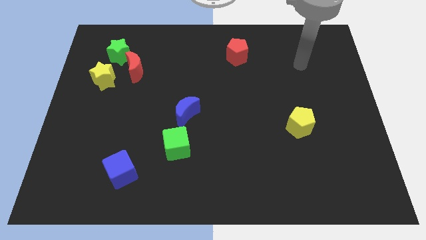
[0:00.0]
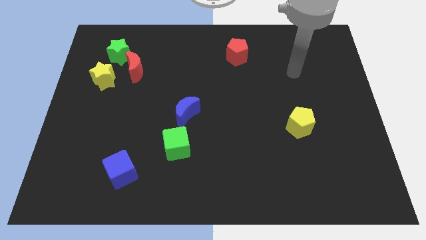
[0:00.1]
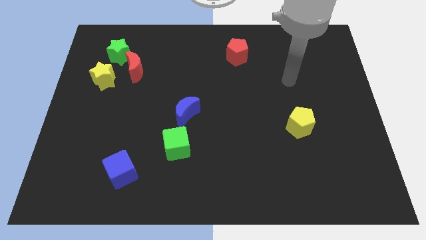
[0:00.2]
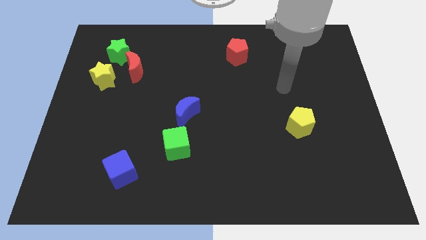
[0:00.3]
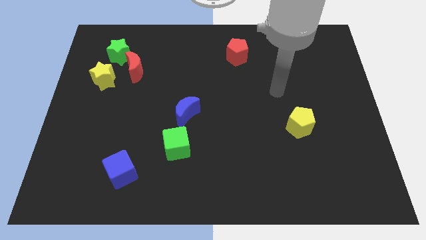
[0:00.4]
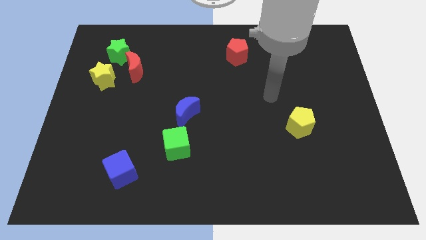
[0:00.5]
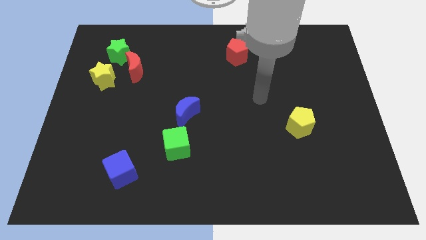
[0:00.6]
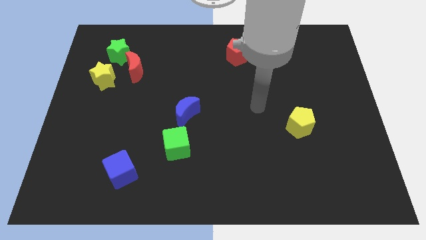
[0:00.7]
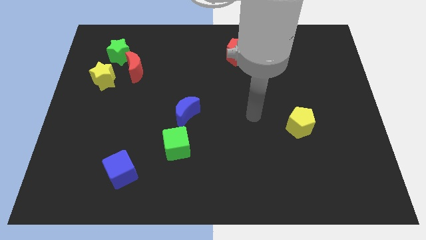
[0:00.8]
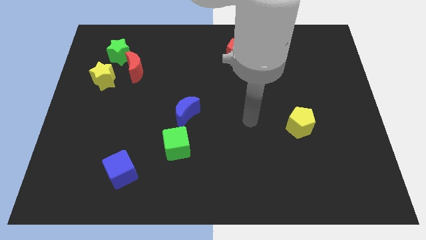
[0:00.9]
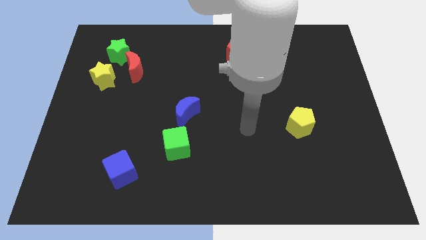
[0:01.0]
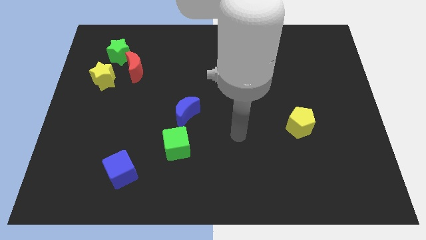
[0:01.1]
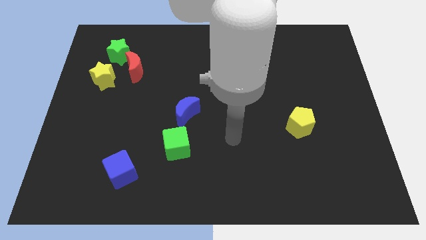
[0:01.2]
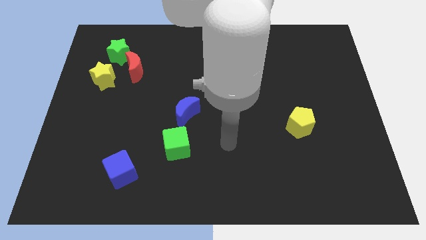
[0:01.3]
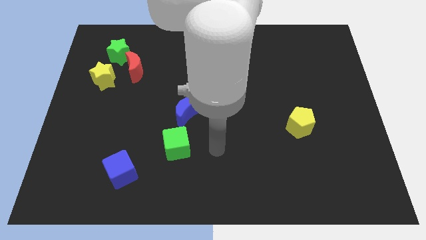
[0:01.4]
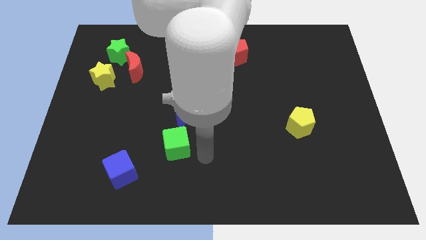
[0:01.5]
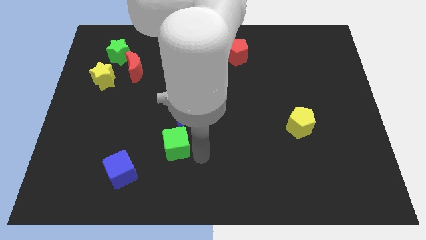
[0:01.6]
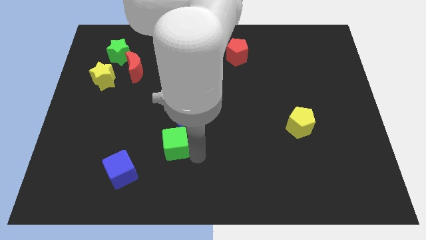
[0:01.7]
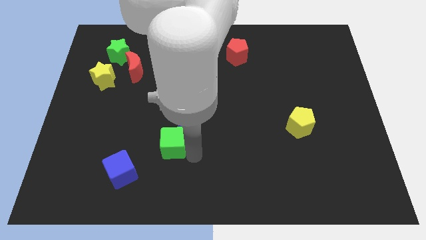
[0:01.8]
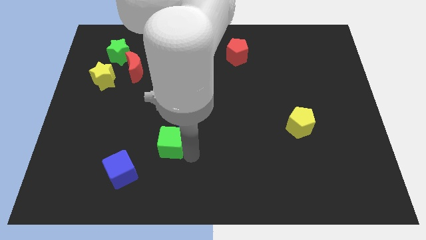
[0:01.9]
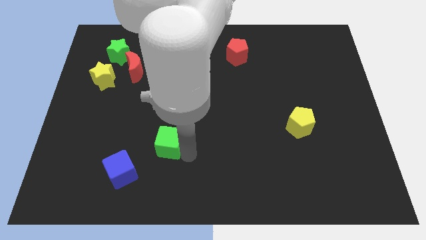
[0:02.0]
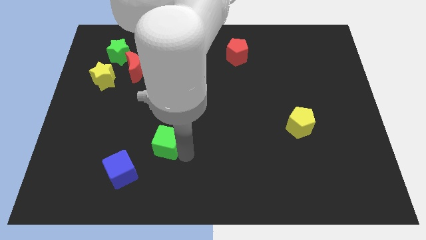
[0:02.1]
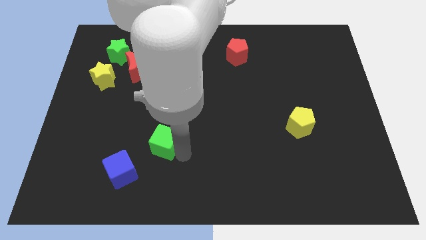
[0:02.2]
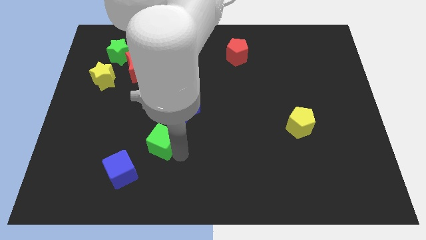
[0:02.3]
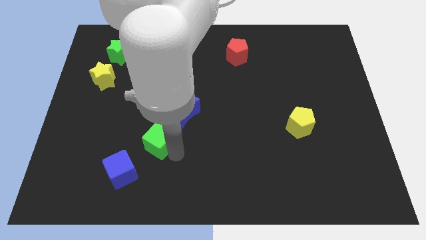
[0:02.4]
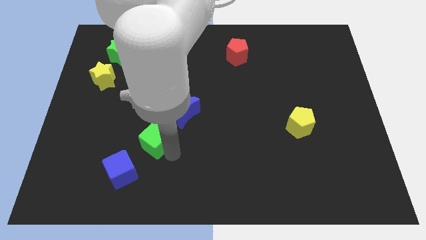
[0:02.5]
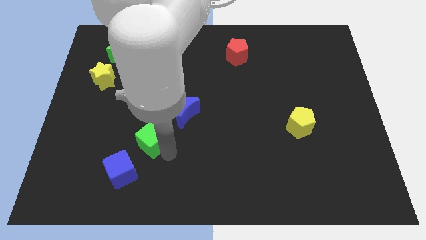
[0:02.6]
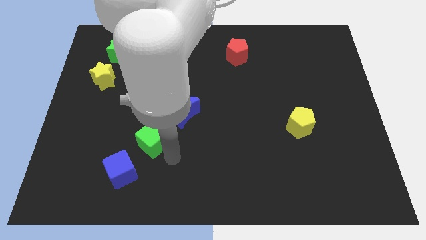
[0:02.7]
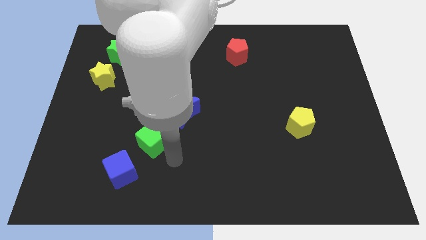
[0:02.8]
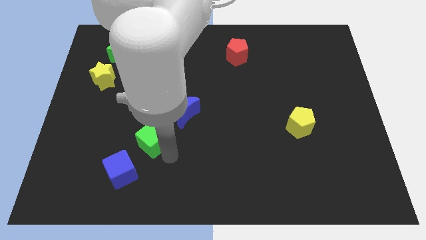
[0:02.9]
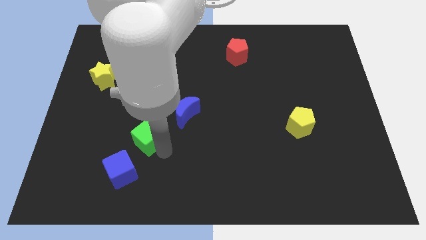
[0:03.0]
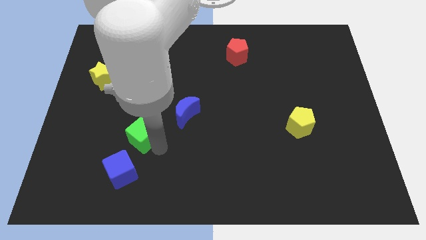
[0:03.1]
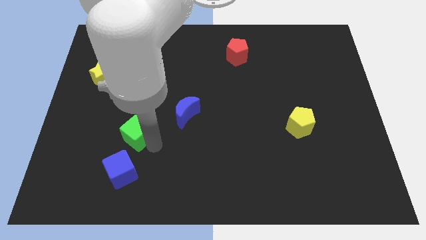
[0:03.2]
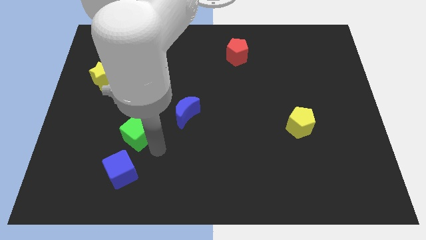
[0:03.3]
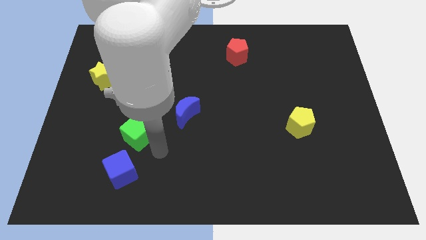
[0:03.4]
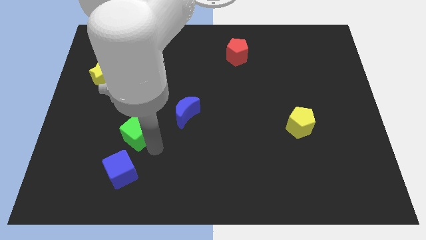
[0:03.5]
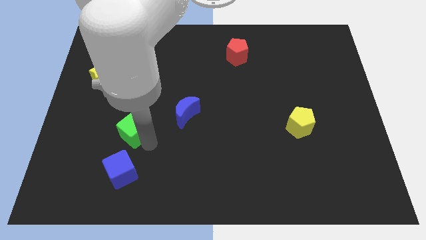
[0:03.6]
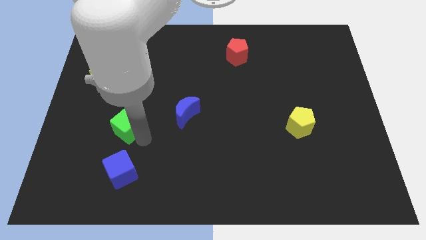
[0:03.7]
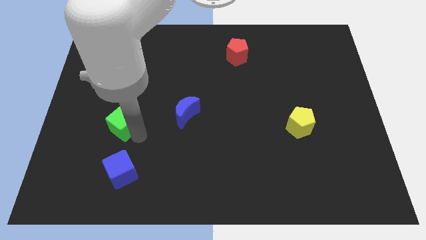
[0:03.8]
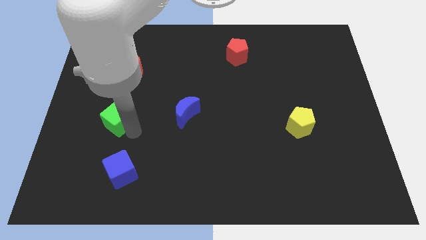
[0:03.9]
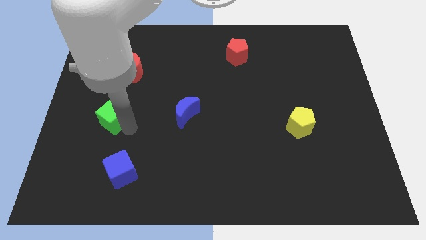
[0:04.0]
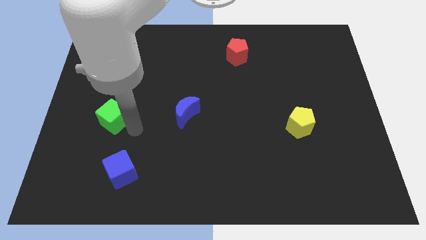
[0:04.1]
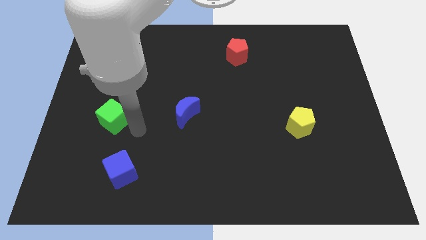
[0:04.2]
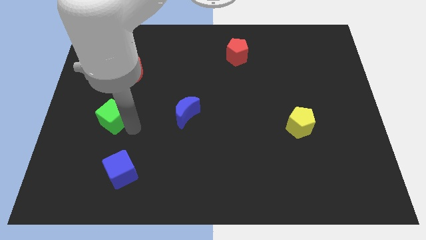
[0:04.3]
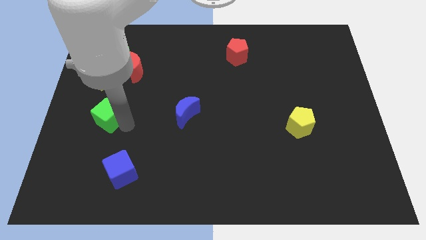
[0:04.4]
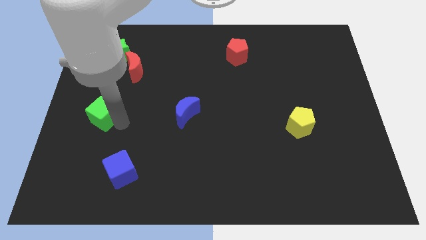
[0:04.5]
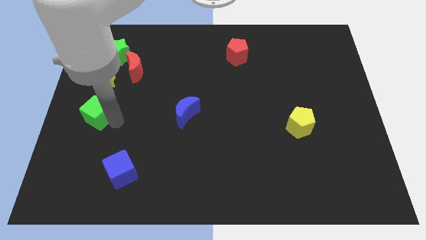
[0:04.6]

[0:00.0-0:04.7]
push the green cube to the left side

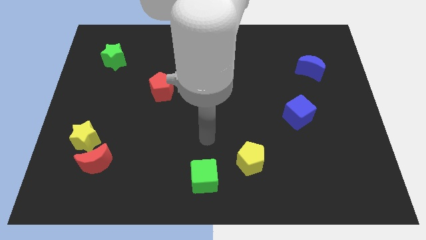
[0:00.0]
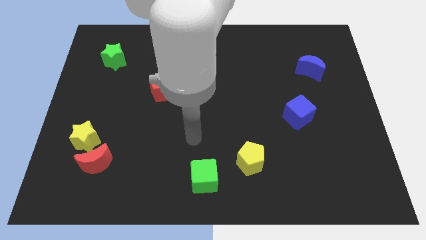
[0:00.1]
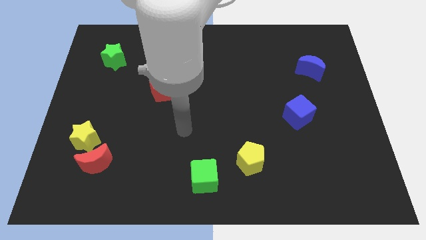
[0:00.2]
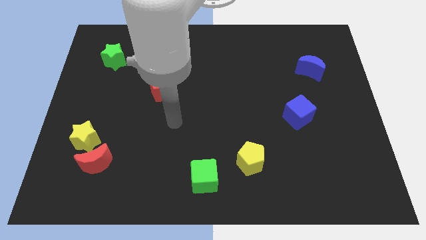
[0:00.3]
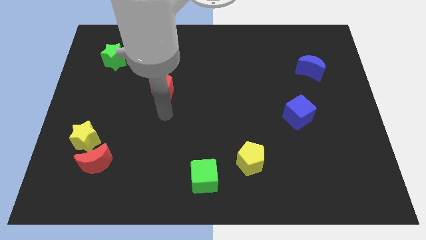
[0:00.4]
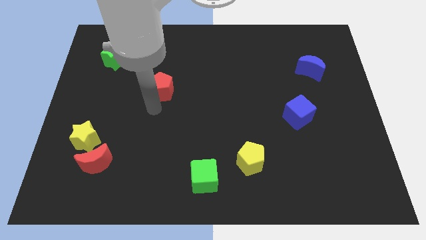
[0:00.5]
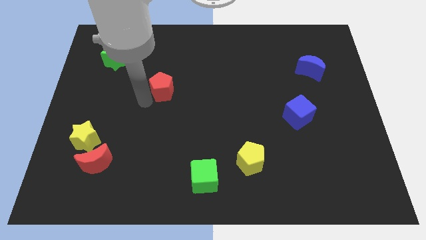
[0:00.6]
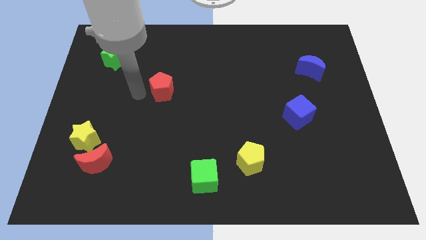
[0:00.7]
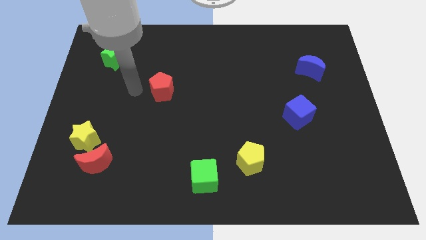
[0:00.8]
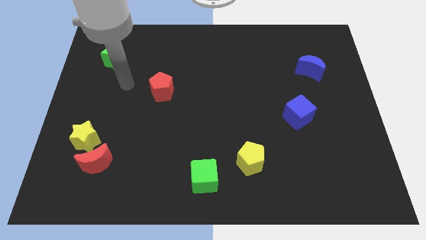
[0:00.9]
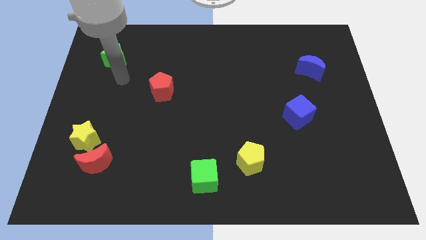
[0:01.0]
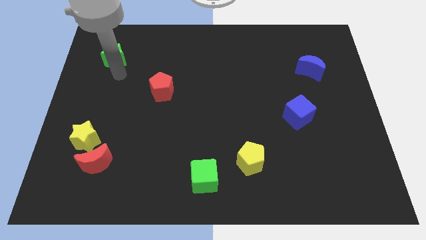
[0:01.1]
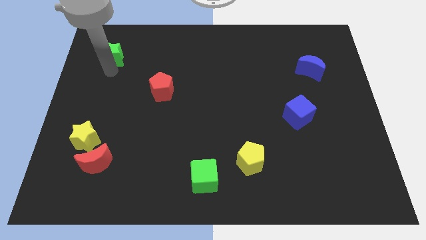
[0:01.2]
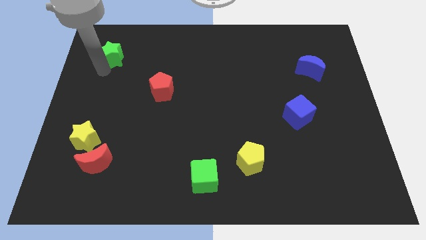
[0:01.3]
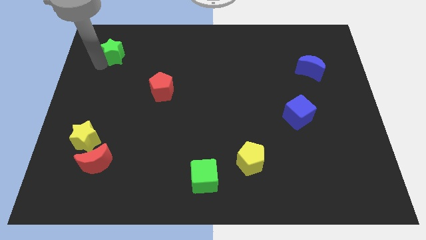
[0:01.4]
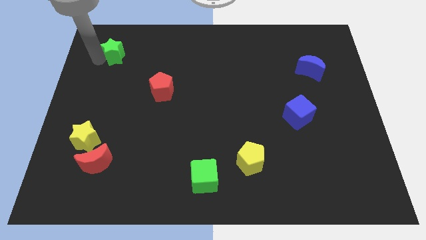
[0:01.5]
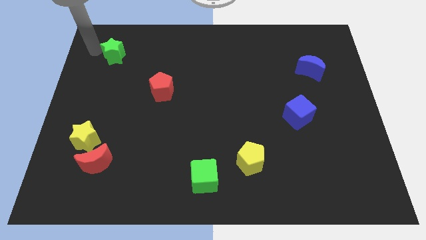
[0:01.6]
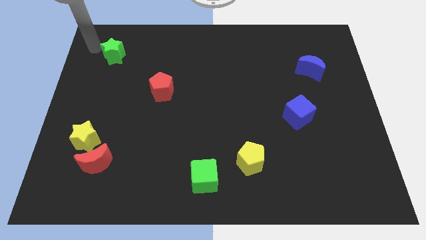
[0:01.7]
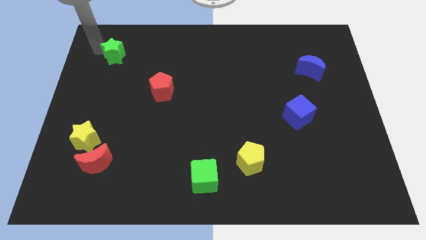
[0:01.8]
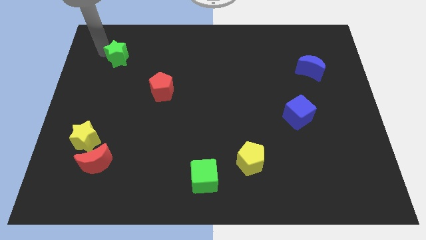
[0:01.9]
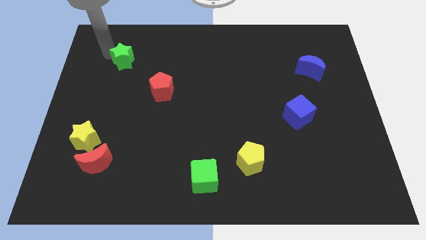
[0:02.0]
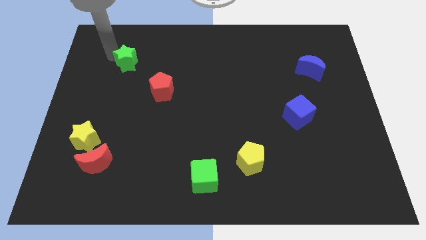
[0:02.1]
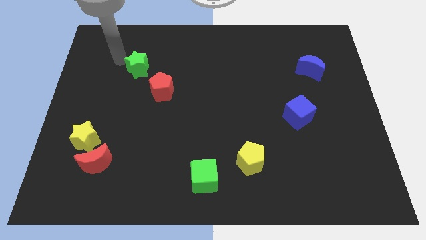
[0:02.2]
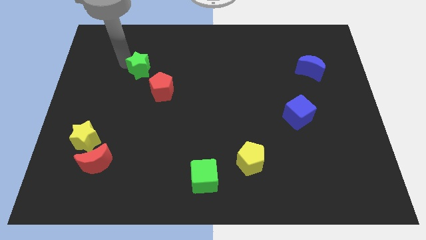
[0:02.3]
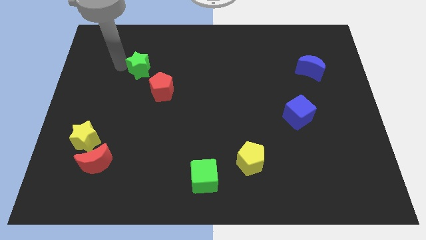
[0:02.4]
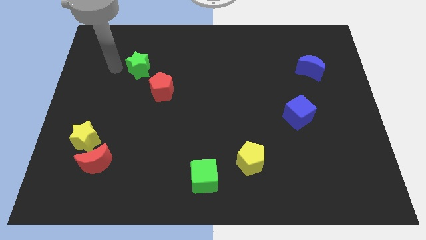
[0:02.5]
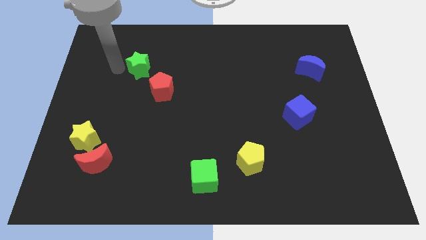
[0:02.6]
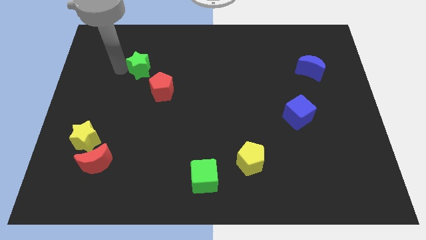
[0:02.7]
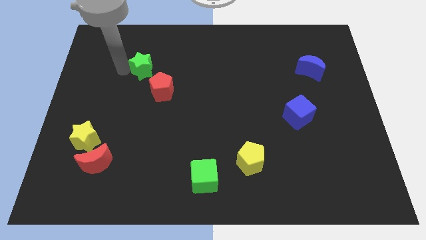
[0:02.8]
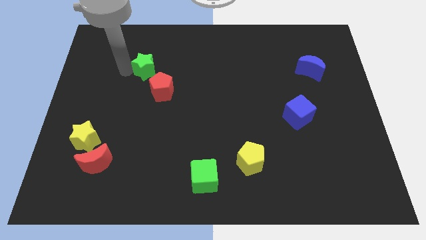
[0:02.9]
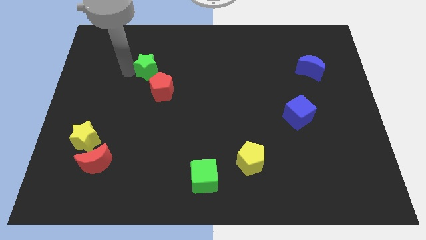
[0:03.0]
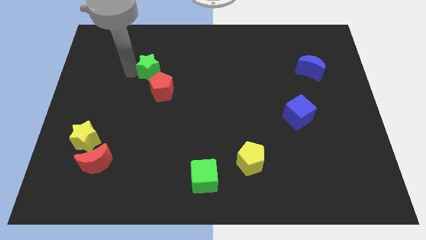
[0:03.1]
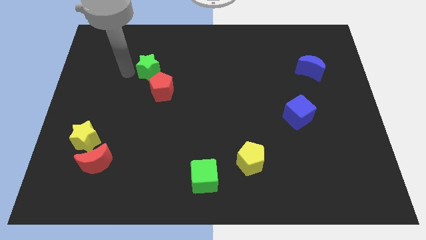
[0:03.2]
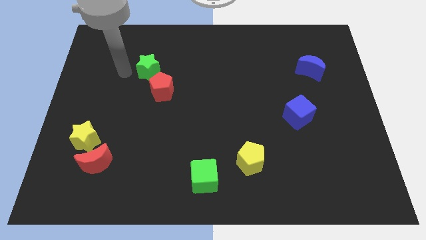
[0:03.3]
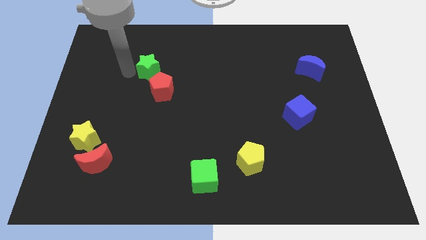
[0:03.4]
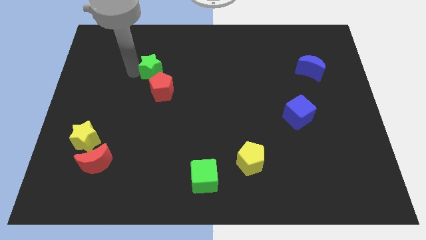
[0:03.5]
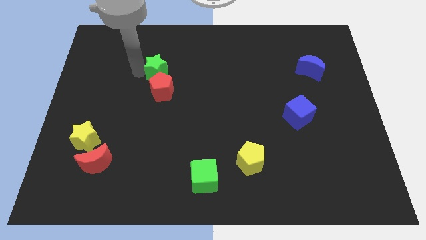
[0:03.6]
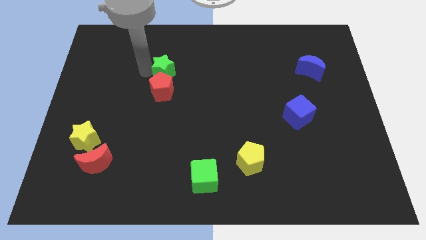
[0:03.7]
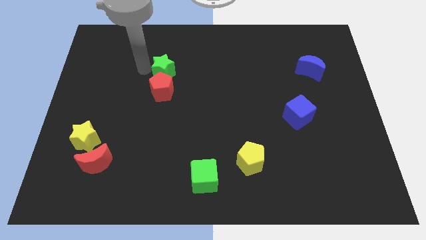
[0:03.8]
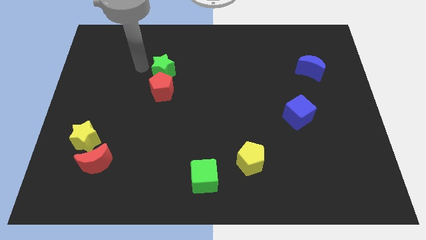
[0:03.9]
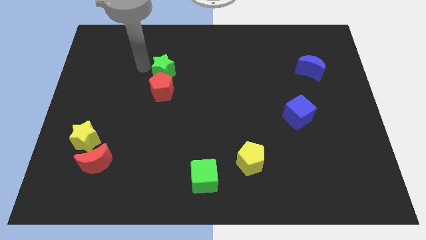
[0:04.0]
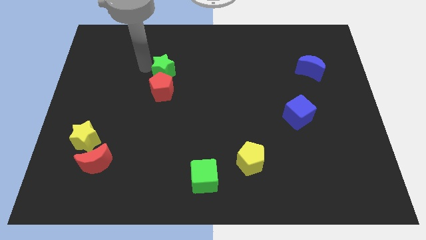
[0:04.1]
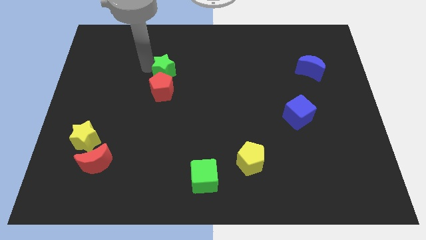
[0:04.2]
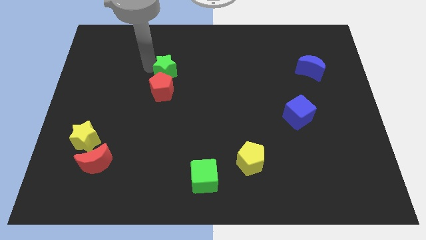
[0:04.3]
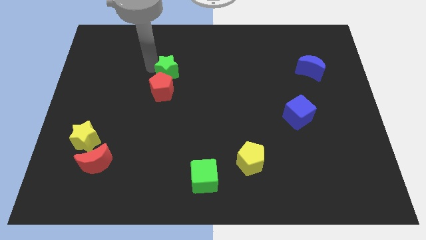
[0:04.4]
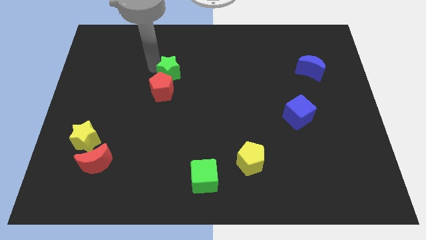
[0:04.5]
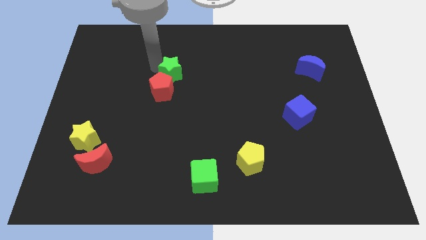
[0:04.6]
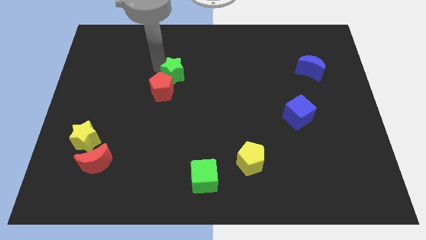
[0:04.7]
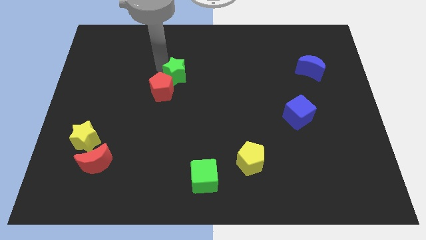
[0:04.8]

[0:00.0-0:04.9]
slide the green star to the center of the board
